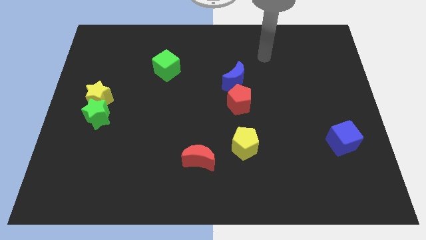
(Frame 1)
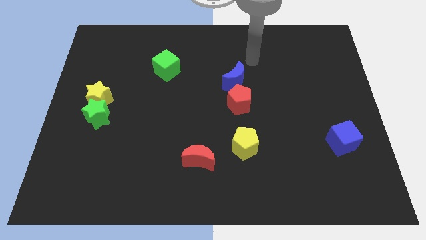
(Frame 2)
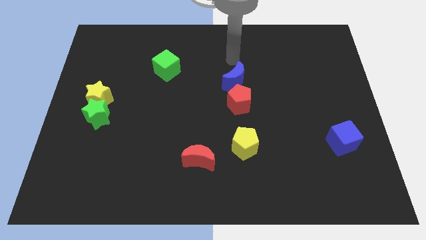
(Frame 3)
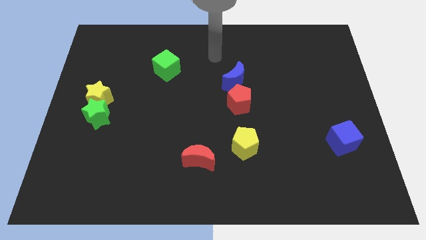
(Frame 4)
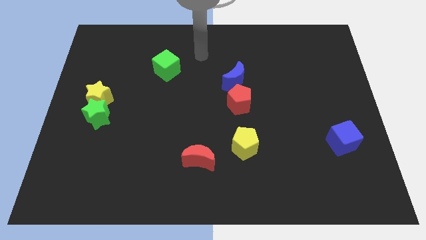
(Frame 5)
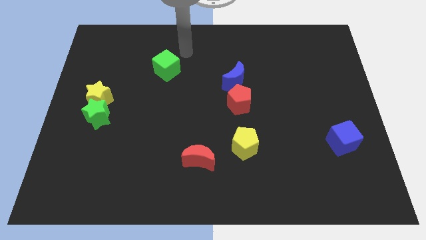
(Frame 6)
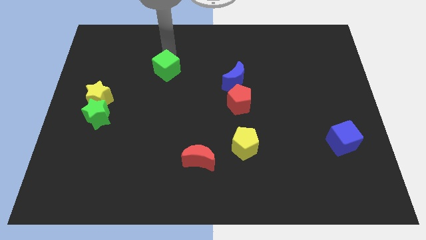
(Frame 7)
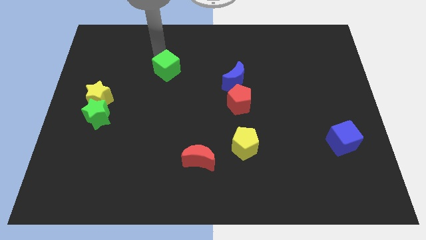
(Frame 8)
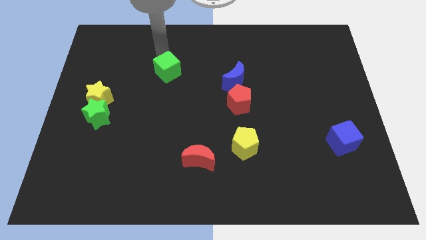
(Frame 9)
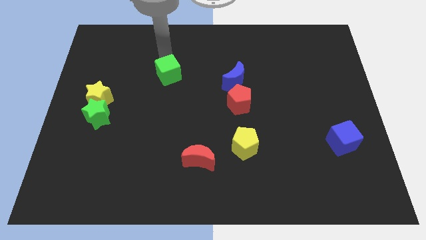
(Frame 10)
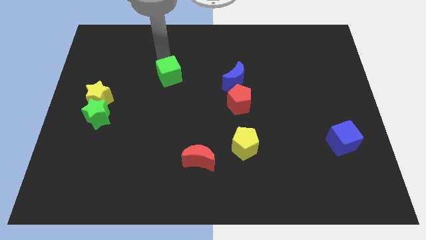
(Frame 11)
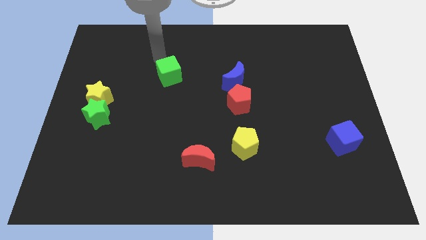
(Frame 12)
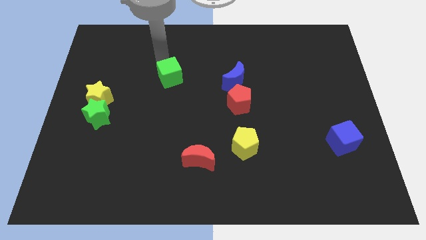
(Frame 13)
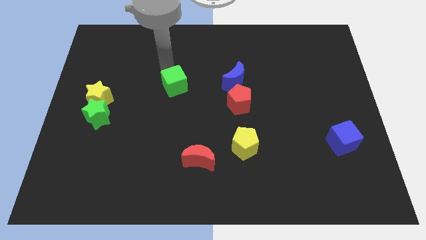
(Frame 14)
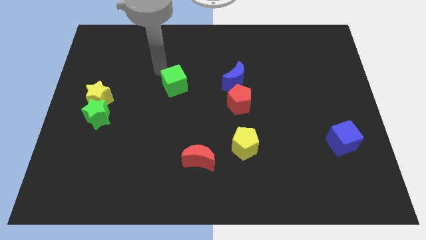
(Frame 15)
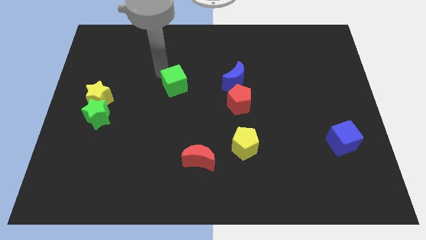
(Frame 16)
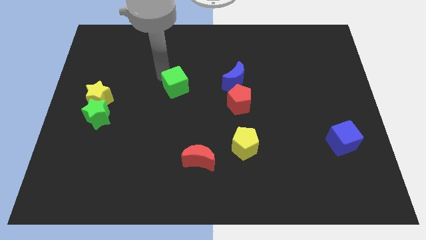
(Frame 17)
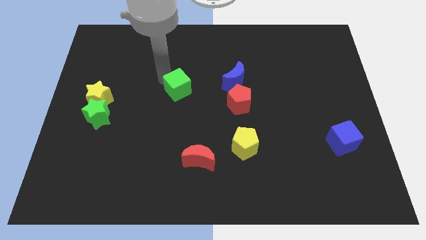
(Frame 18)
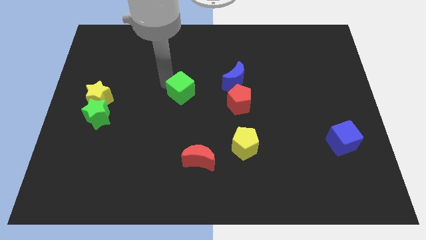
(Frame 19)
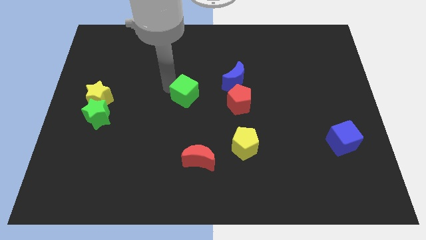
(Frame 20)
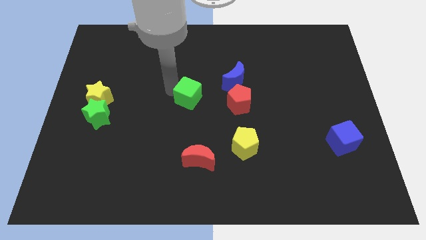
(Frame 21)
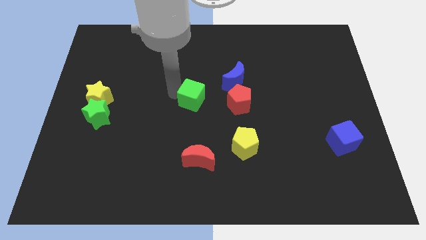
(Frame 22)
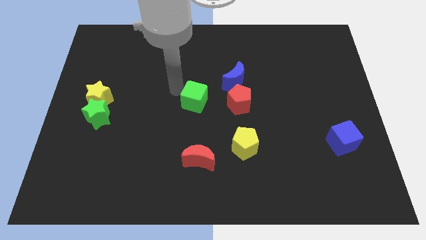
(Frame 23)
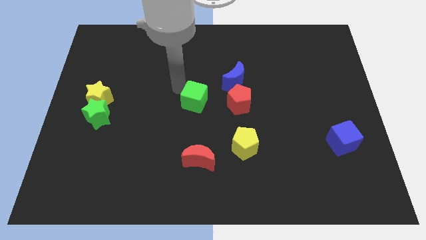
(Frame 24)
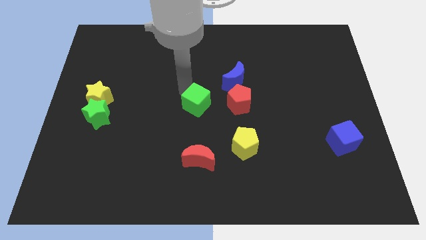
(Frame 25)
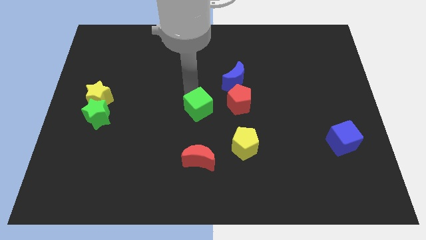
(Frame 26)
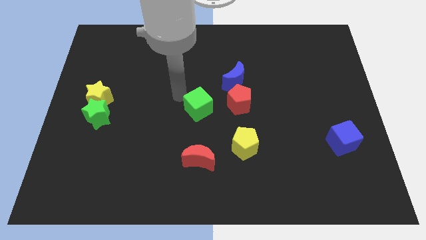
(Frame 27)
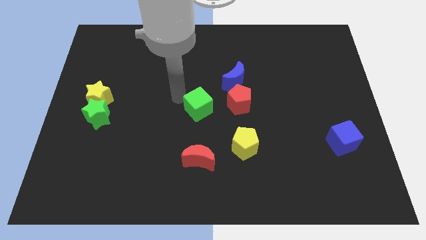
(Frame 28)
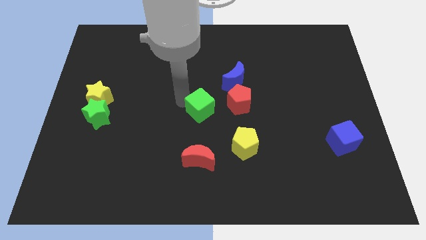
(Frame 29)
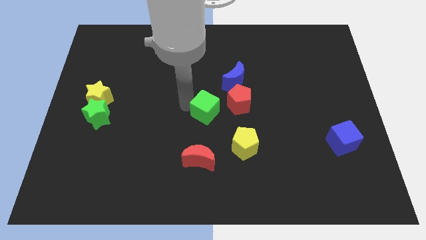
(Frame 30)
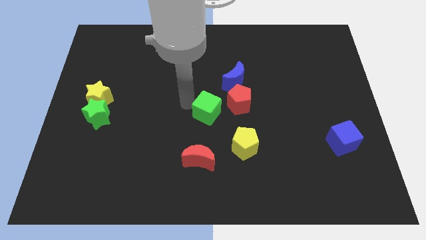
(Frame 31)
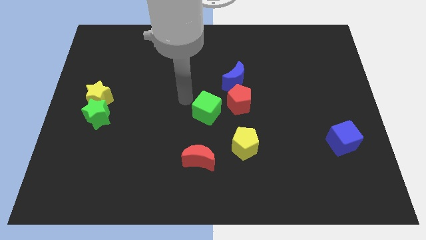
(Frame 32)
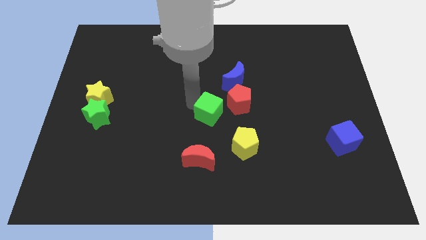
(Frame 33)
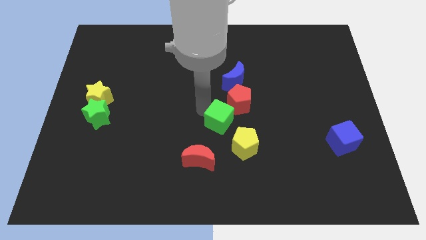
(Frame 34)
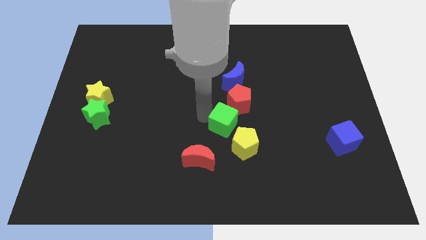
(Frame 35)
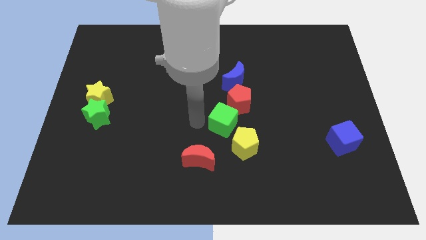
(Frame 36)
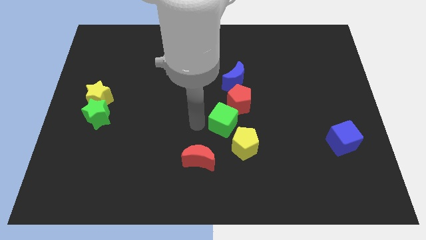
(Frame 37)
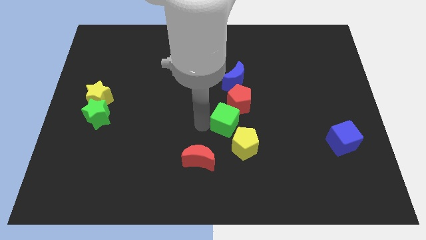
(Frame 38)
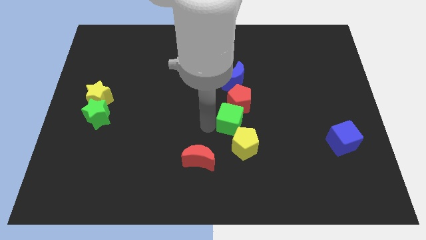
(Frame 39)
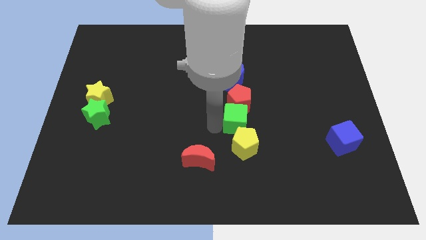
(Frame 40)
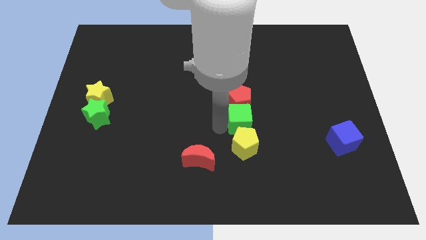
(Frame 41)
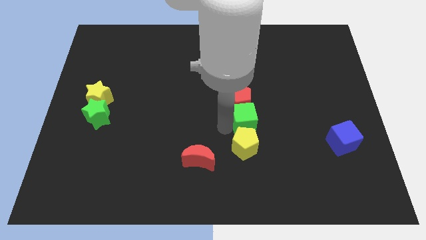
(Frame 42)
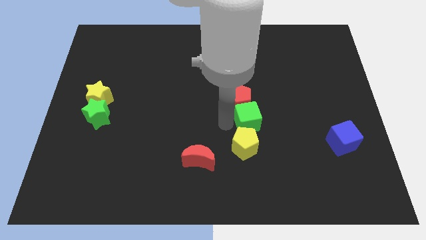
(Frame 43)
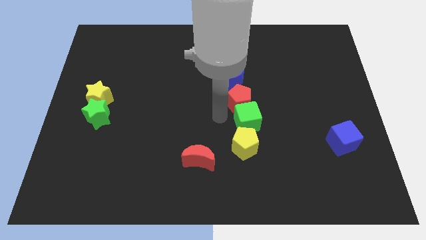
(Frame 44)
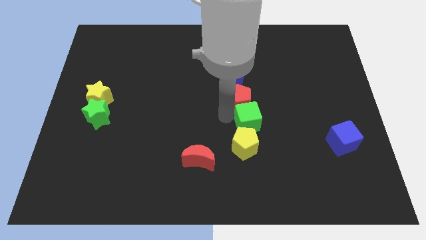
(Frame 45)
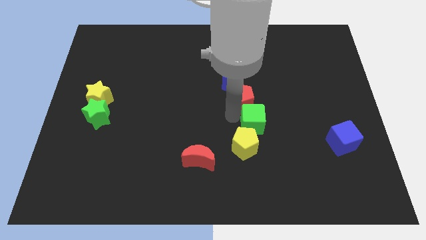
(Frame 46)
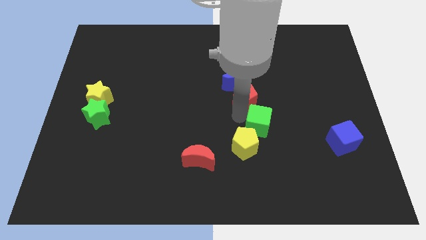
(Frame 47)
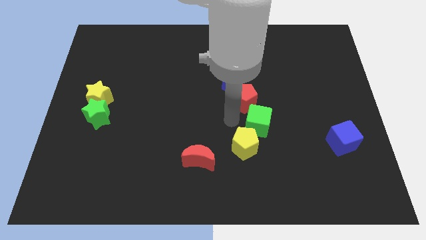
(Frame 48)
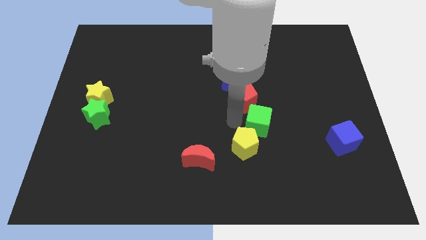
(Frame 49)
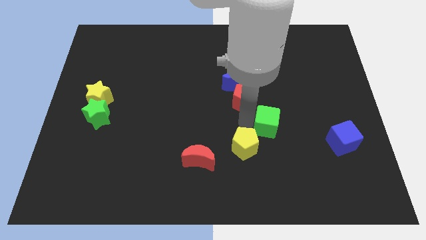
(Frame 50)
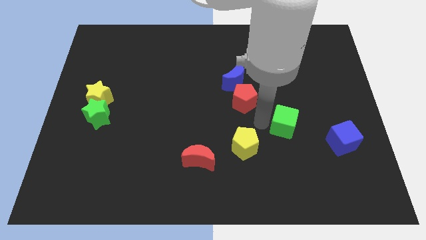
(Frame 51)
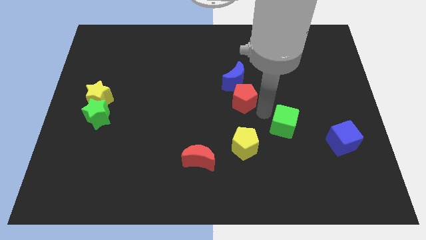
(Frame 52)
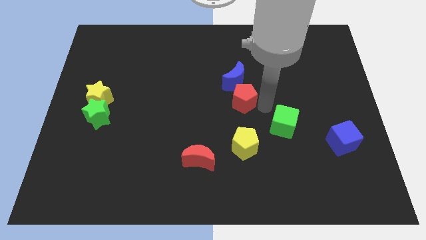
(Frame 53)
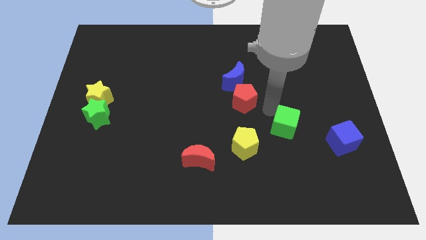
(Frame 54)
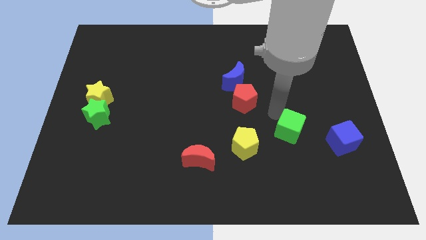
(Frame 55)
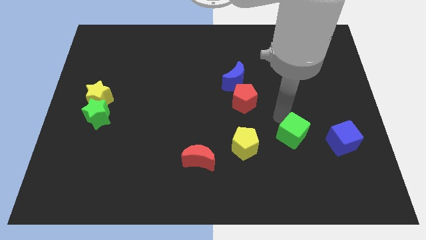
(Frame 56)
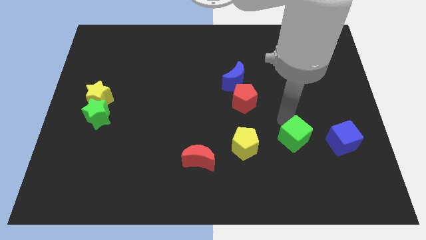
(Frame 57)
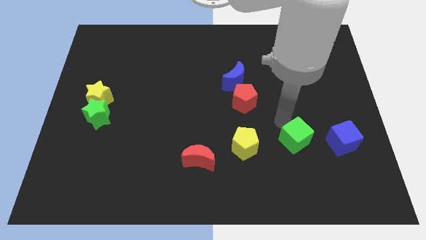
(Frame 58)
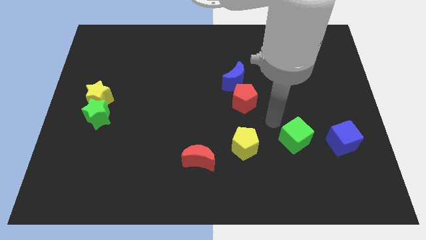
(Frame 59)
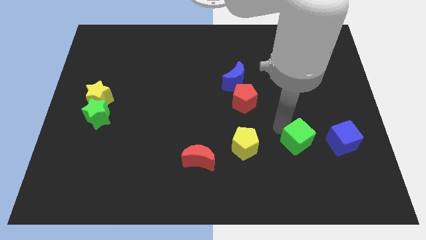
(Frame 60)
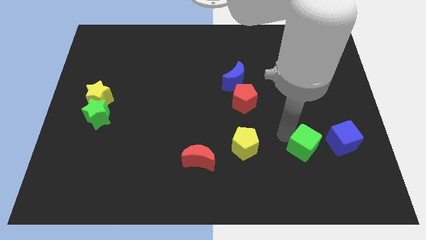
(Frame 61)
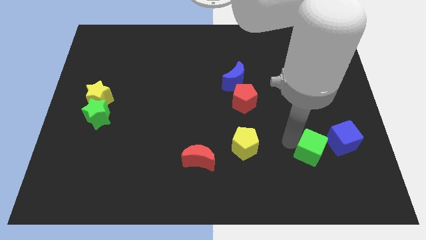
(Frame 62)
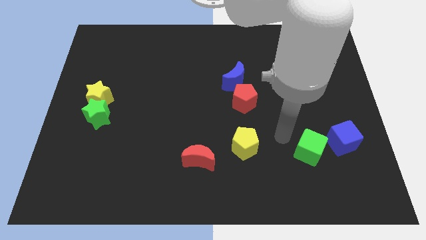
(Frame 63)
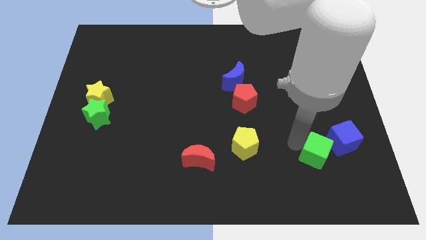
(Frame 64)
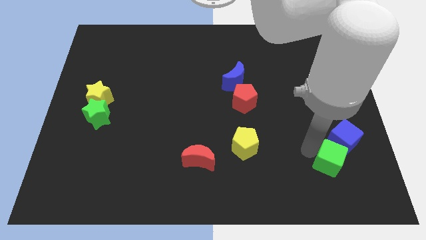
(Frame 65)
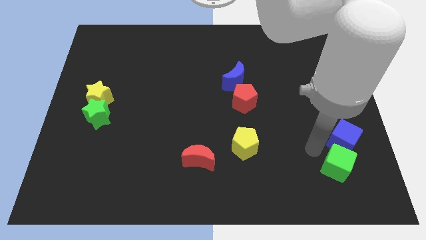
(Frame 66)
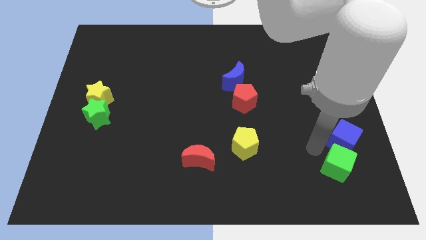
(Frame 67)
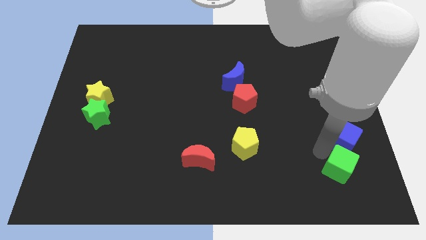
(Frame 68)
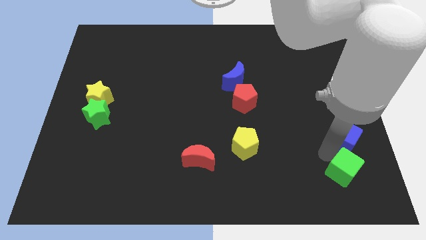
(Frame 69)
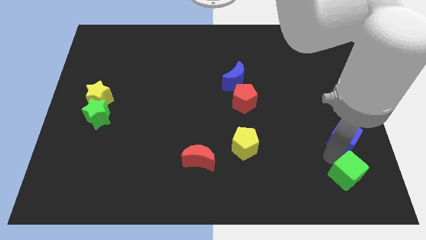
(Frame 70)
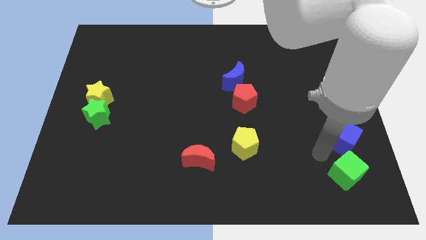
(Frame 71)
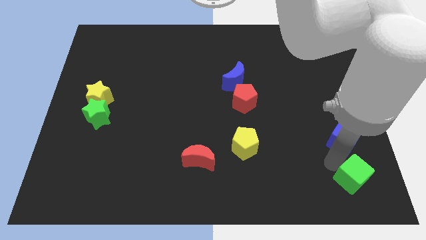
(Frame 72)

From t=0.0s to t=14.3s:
put the green cube to the bottom right
